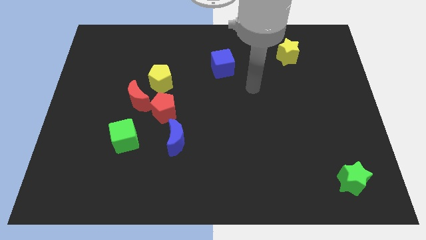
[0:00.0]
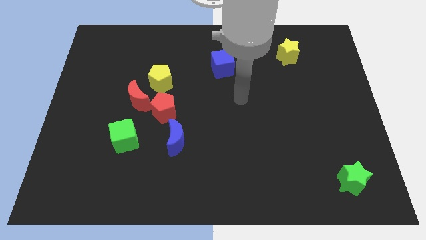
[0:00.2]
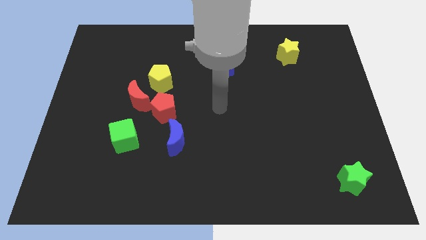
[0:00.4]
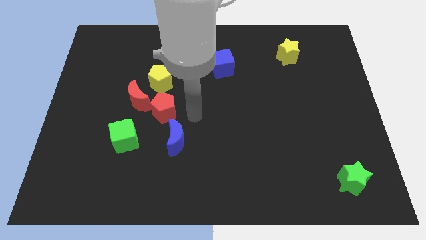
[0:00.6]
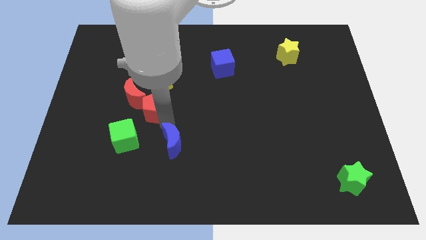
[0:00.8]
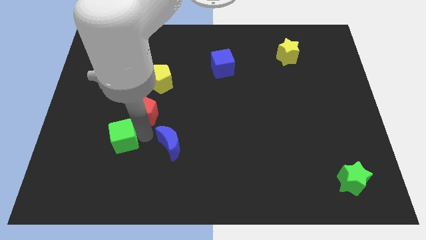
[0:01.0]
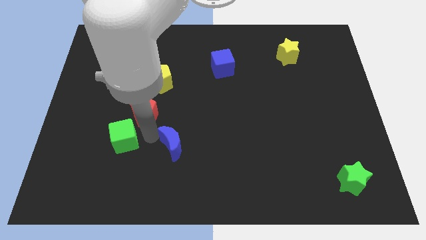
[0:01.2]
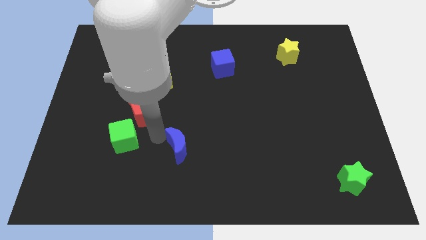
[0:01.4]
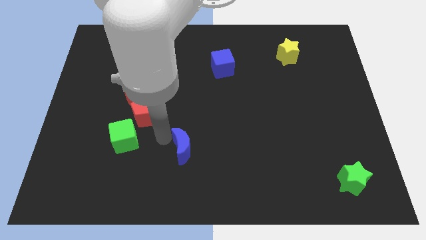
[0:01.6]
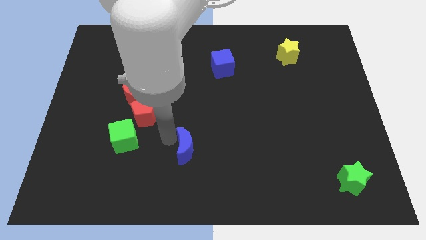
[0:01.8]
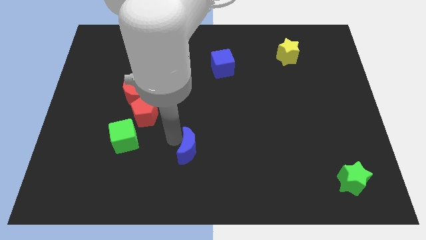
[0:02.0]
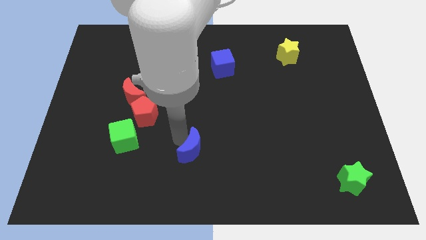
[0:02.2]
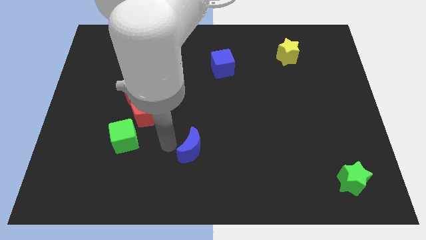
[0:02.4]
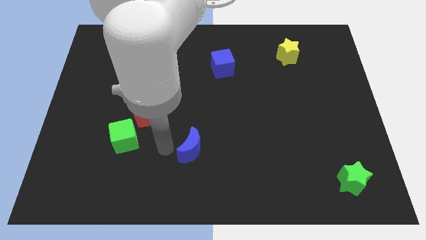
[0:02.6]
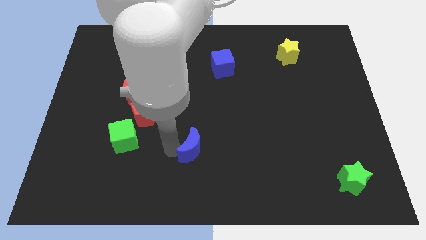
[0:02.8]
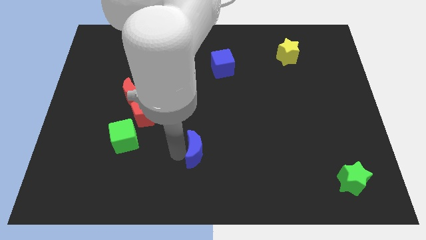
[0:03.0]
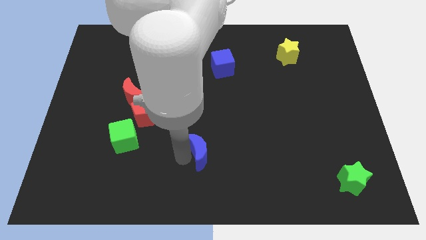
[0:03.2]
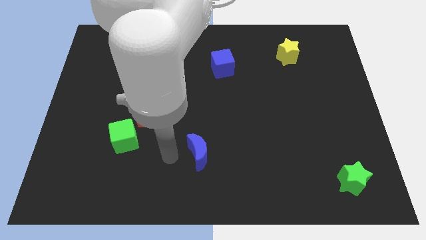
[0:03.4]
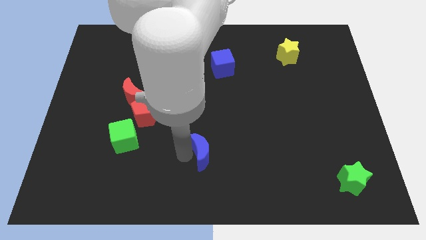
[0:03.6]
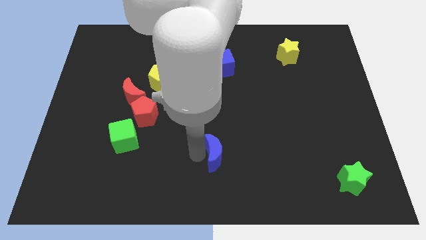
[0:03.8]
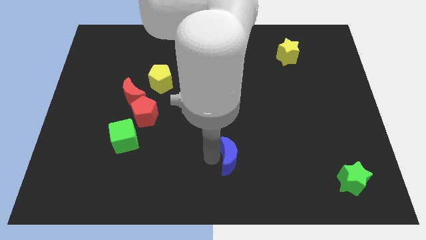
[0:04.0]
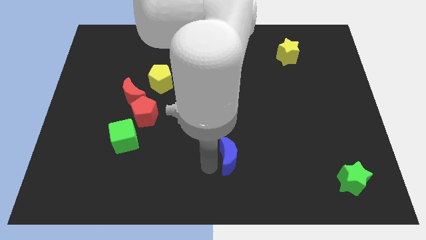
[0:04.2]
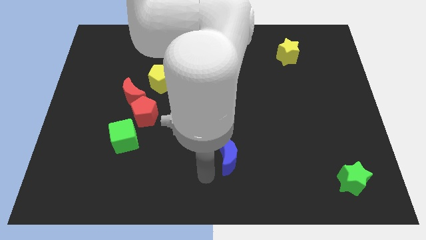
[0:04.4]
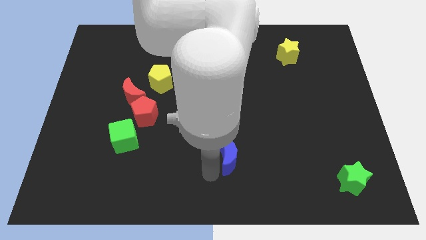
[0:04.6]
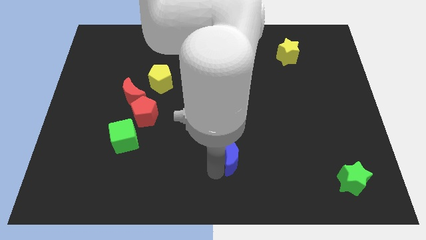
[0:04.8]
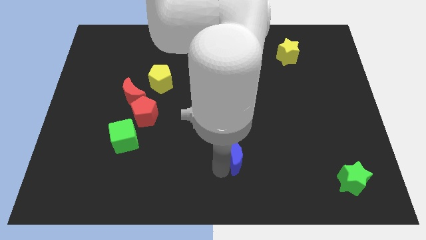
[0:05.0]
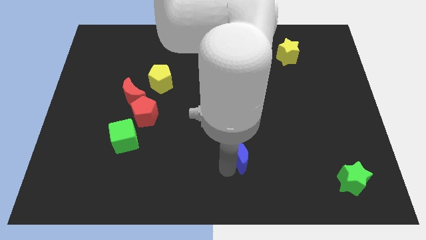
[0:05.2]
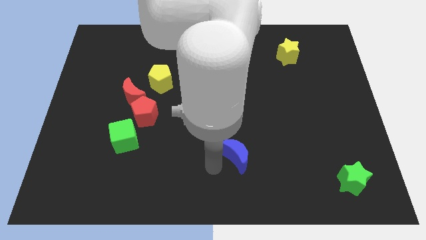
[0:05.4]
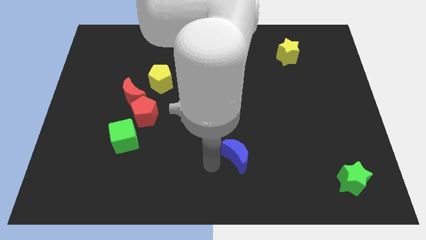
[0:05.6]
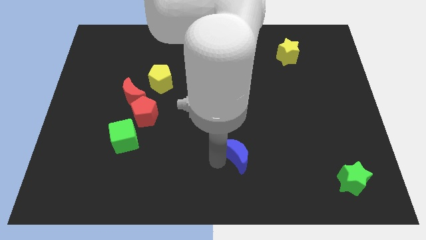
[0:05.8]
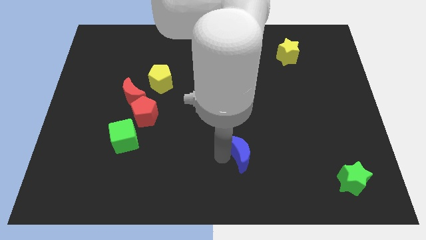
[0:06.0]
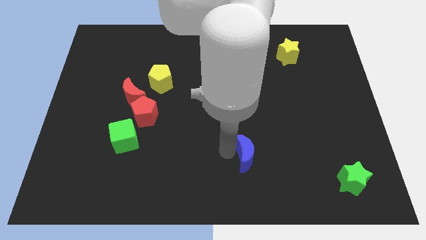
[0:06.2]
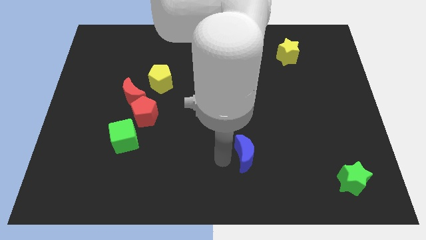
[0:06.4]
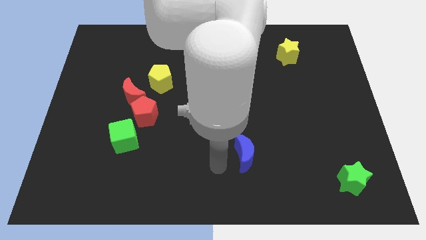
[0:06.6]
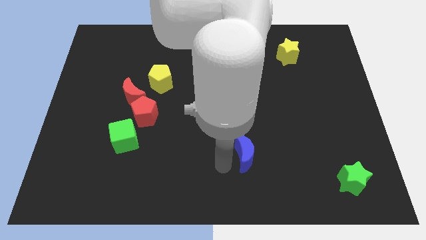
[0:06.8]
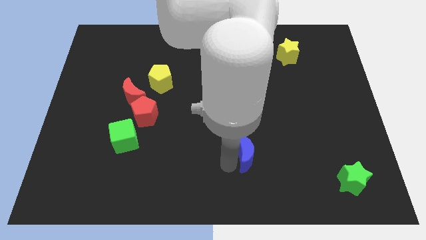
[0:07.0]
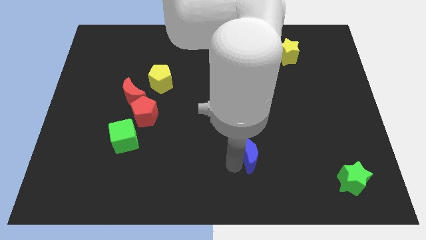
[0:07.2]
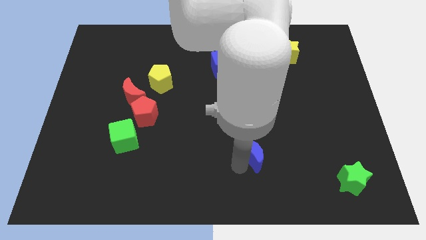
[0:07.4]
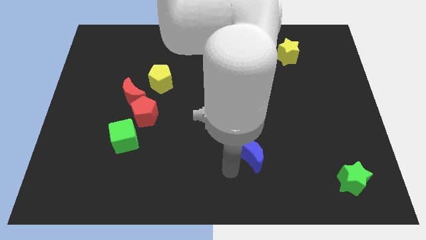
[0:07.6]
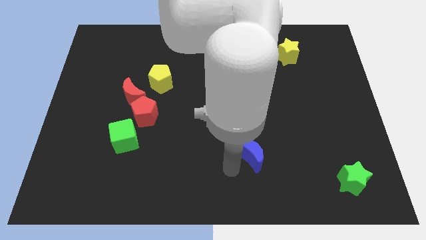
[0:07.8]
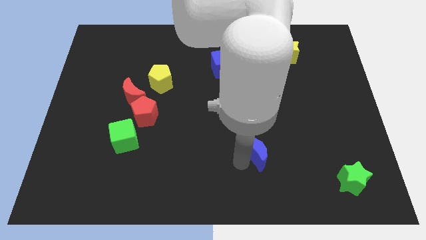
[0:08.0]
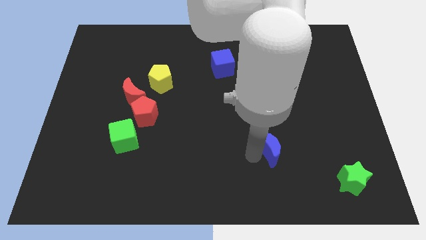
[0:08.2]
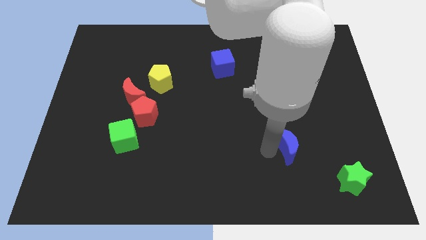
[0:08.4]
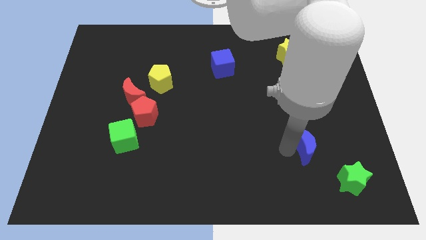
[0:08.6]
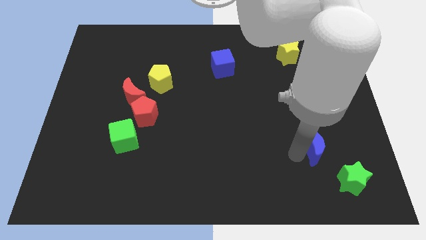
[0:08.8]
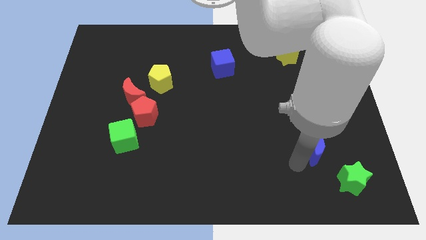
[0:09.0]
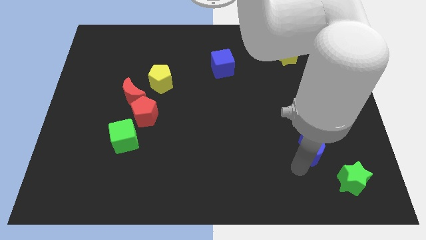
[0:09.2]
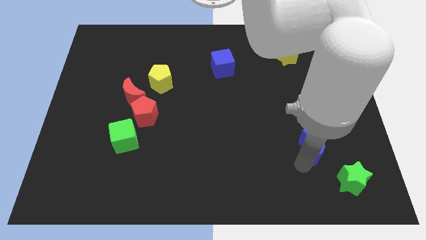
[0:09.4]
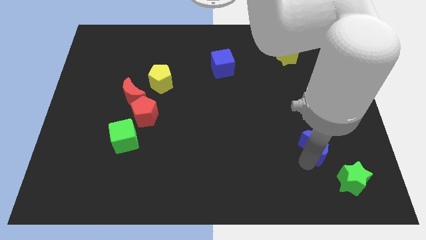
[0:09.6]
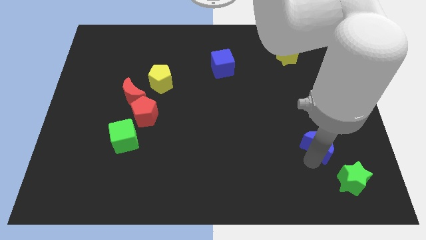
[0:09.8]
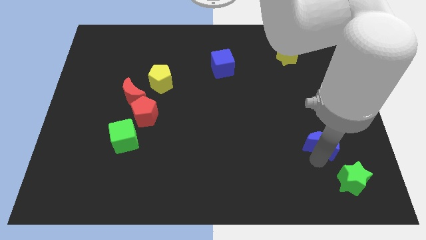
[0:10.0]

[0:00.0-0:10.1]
slide the blue moon to the top side of the green star

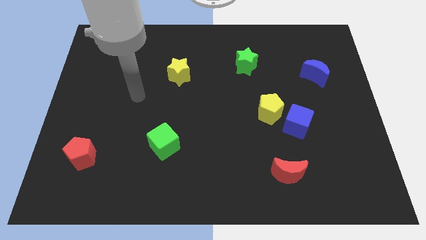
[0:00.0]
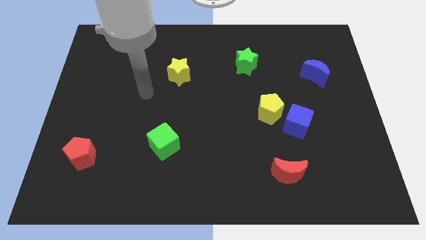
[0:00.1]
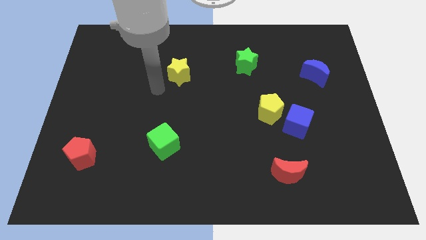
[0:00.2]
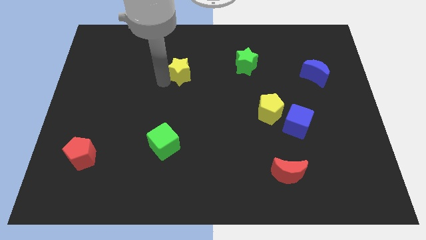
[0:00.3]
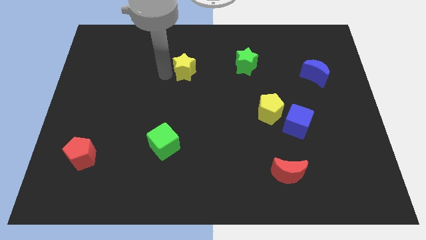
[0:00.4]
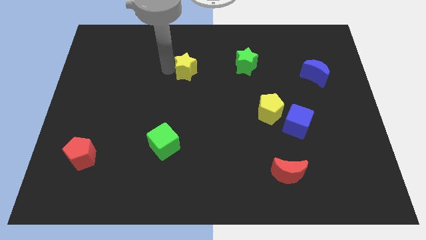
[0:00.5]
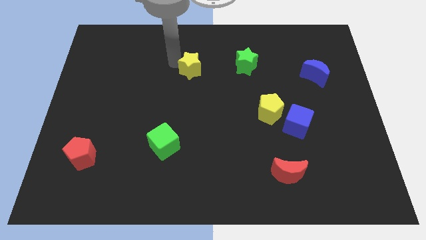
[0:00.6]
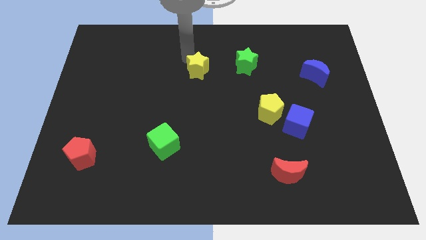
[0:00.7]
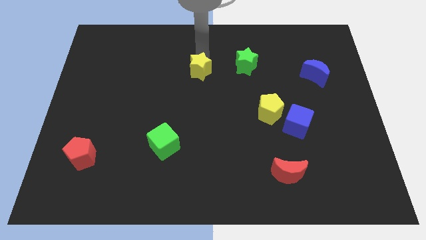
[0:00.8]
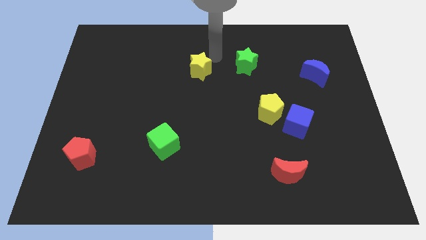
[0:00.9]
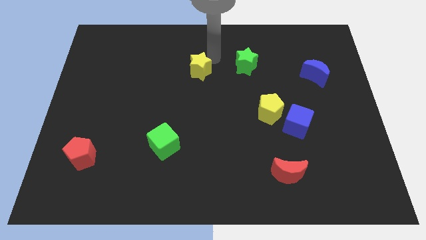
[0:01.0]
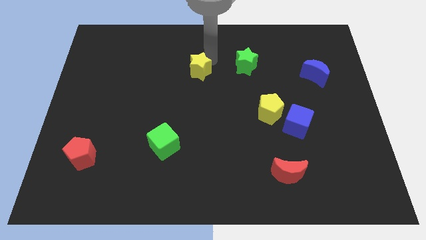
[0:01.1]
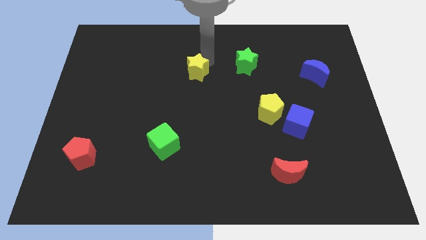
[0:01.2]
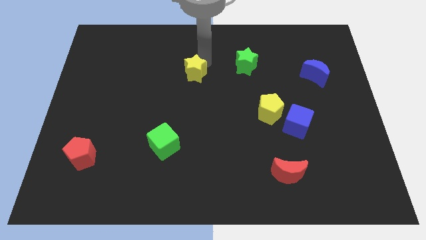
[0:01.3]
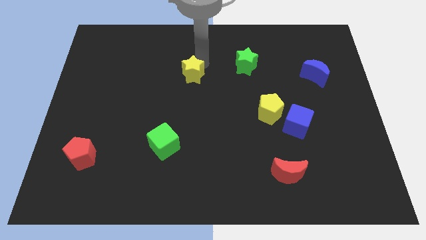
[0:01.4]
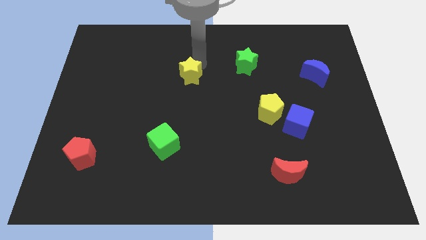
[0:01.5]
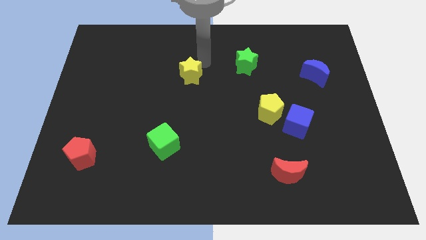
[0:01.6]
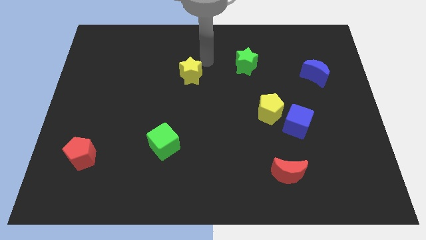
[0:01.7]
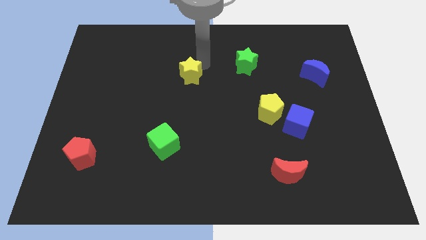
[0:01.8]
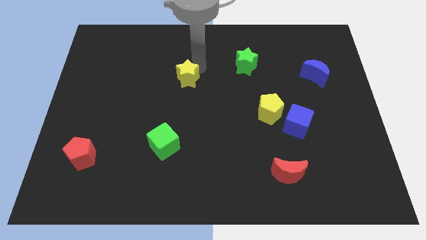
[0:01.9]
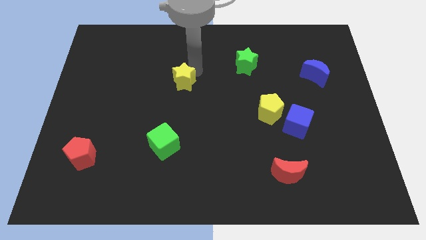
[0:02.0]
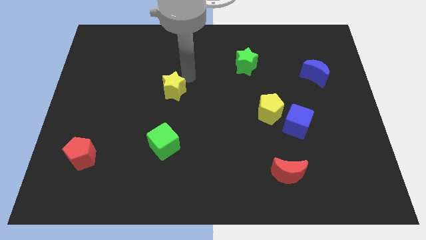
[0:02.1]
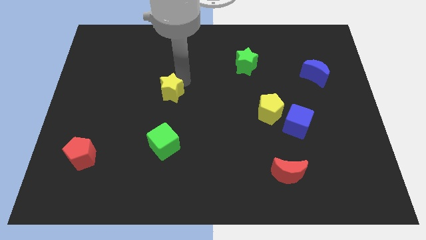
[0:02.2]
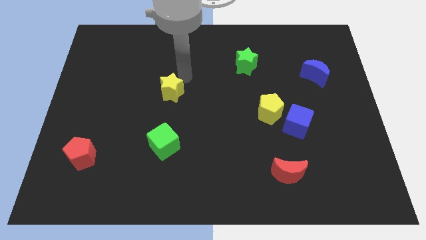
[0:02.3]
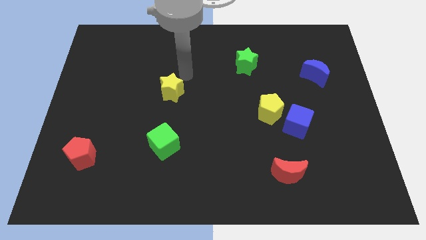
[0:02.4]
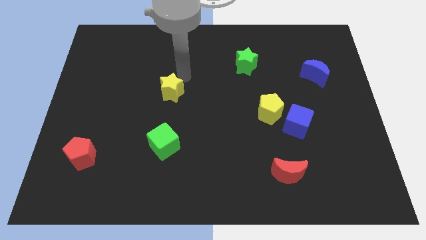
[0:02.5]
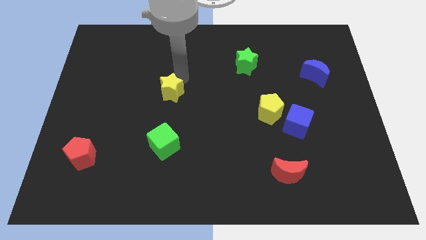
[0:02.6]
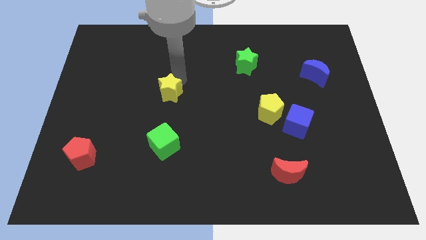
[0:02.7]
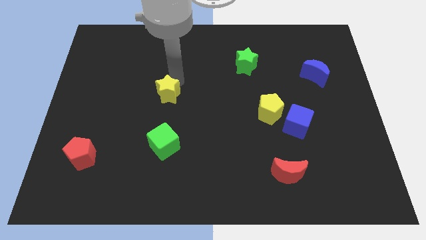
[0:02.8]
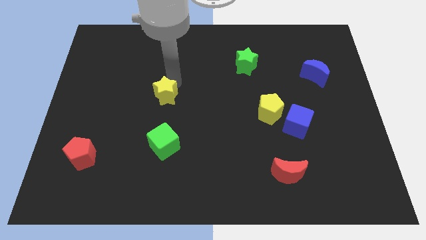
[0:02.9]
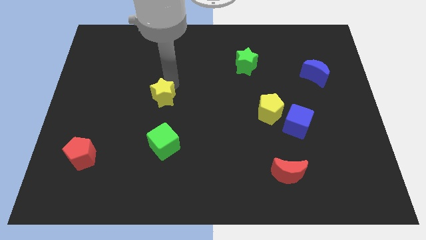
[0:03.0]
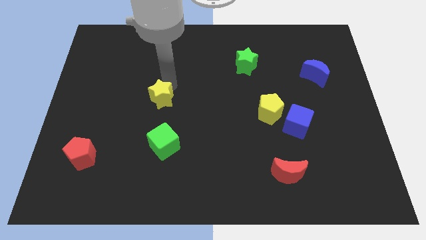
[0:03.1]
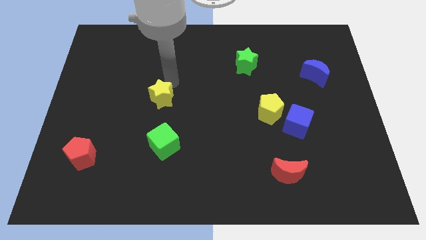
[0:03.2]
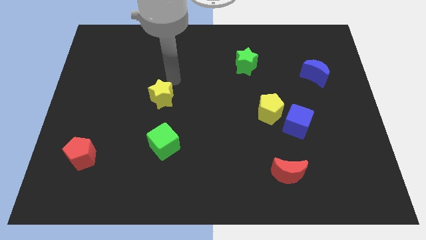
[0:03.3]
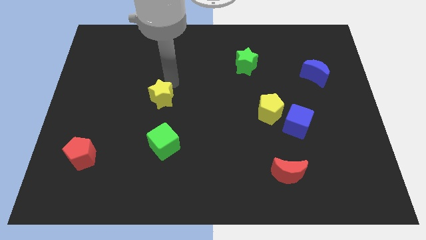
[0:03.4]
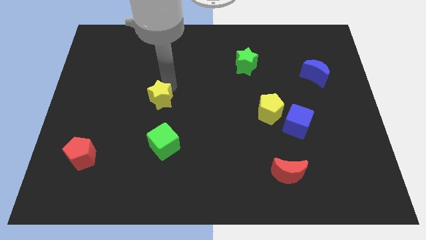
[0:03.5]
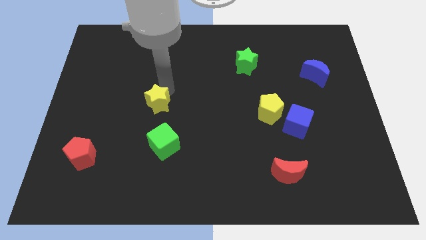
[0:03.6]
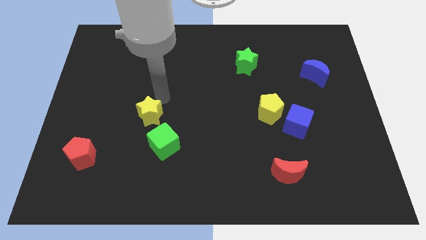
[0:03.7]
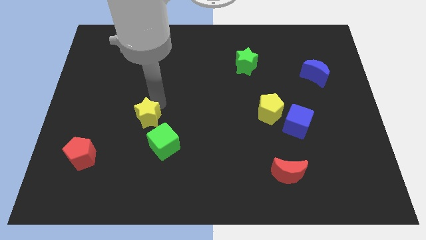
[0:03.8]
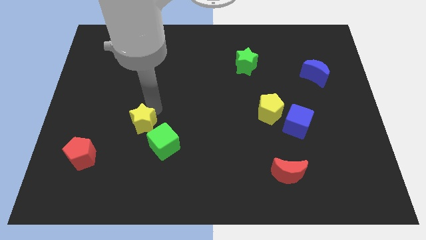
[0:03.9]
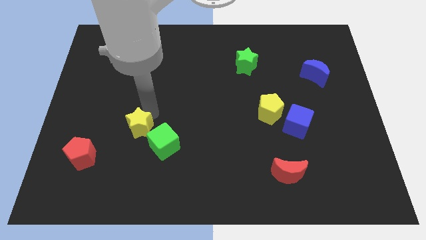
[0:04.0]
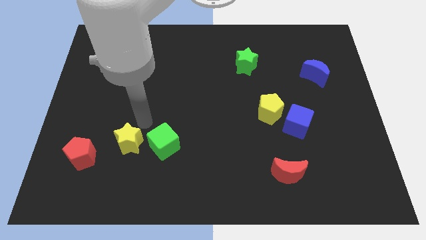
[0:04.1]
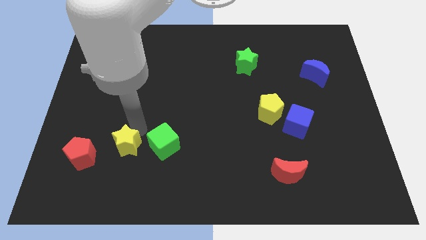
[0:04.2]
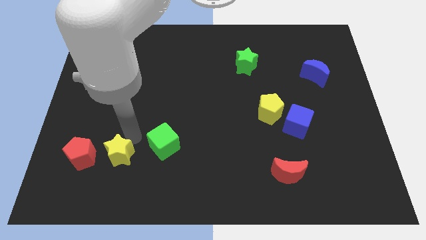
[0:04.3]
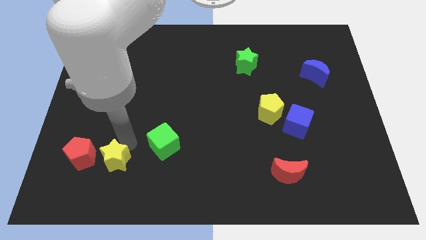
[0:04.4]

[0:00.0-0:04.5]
move the yellow star to the bottom right side of the red pentagon
